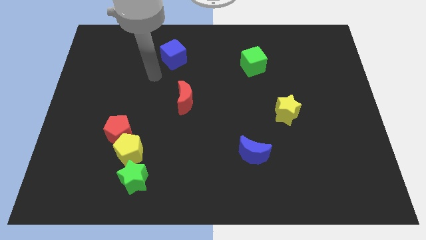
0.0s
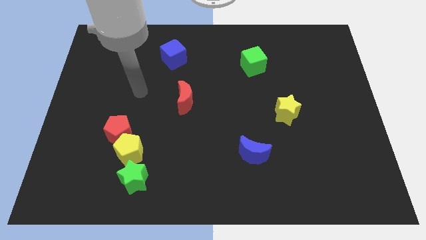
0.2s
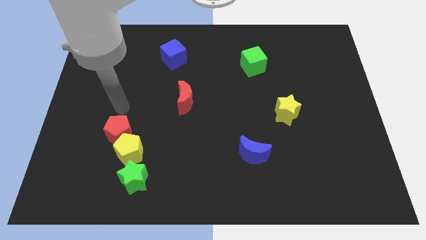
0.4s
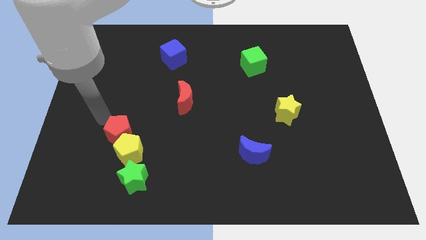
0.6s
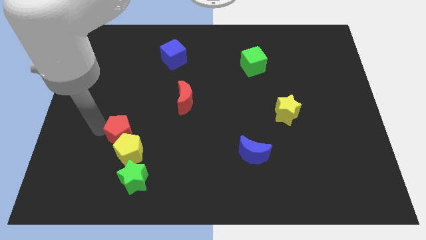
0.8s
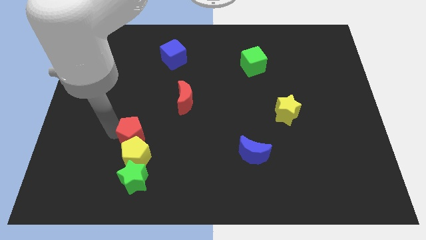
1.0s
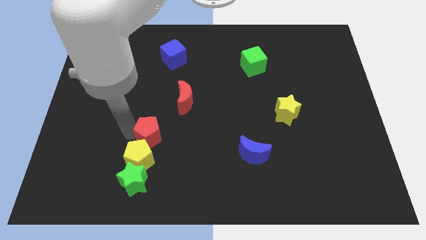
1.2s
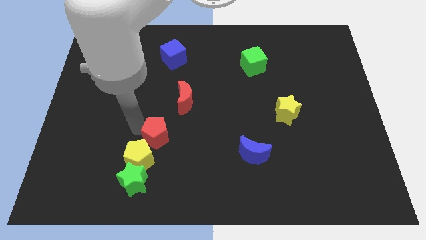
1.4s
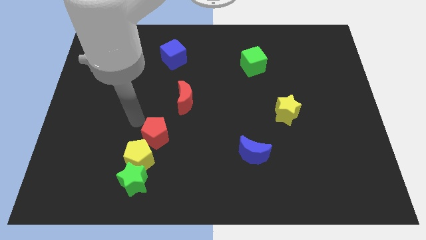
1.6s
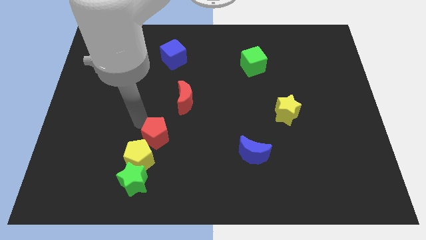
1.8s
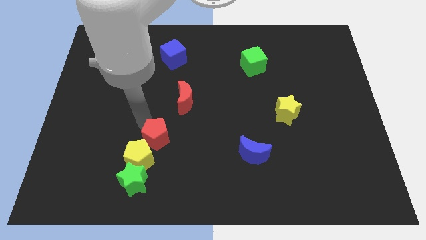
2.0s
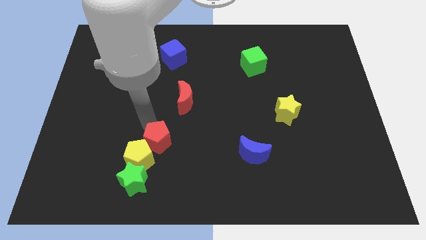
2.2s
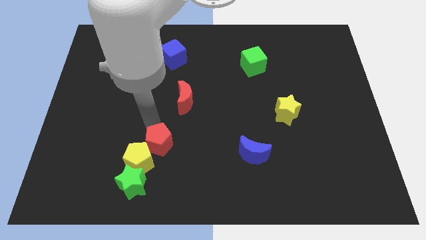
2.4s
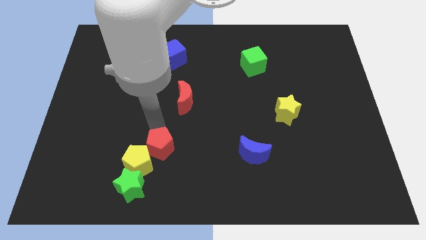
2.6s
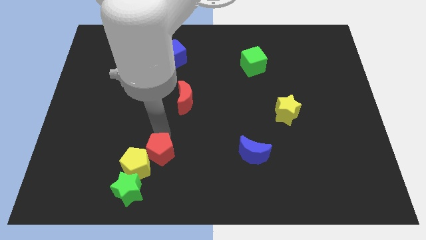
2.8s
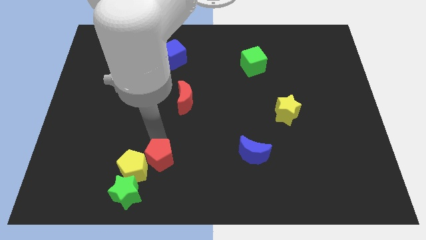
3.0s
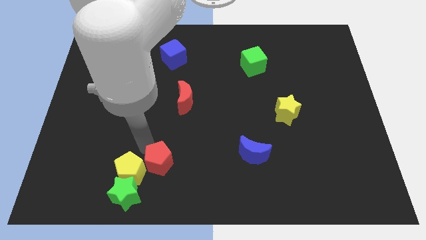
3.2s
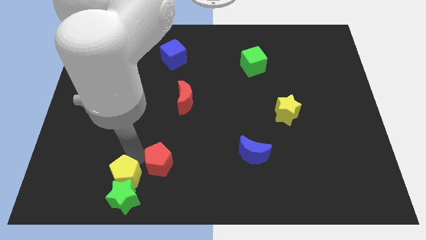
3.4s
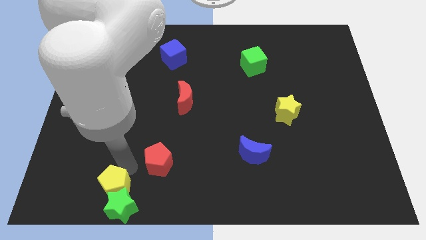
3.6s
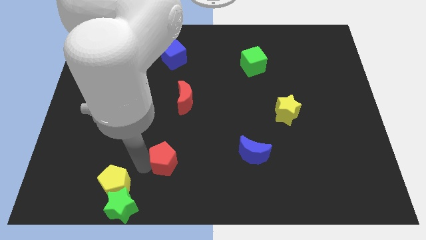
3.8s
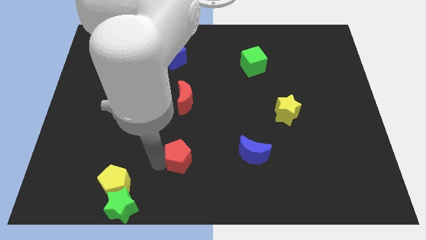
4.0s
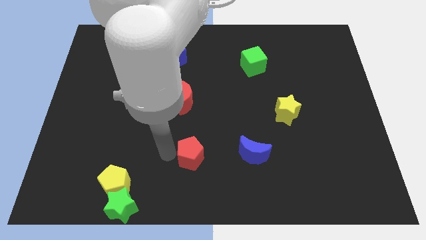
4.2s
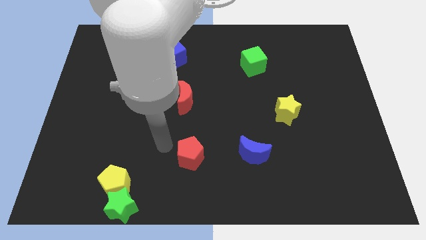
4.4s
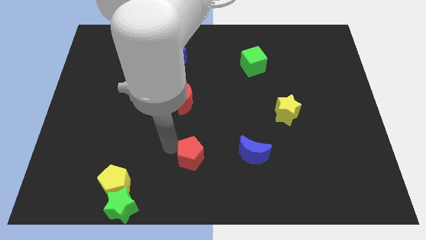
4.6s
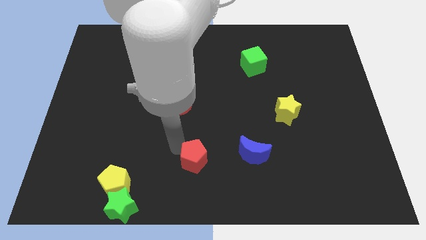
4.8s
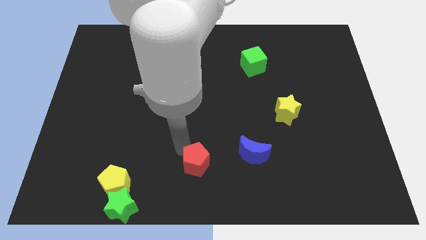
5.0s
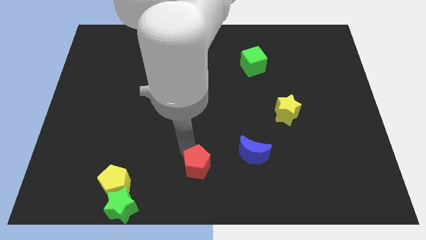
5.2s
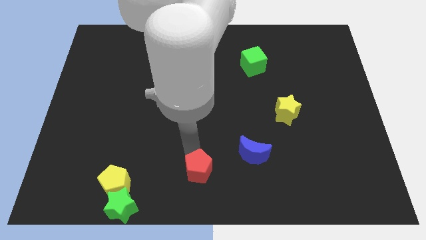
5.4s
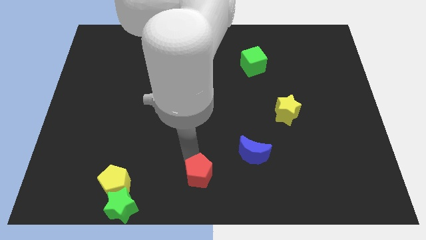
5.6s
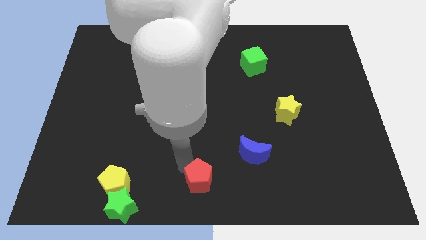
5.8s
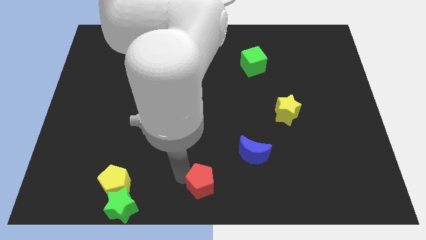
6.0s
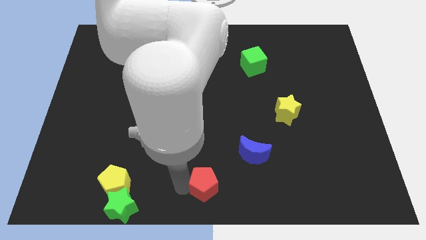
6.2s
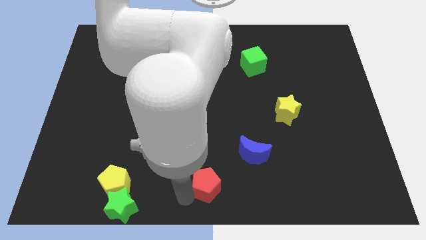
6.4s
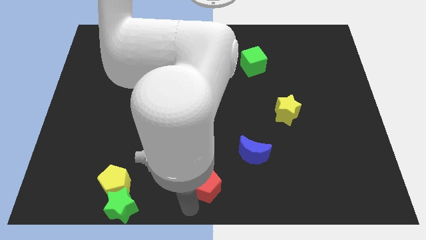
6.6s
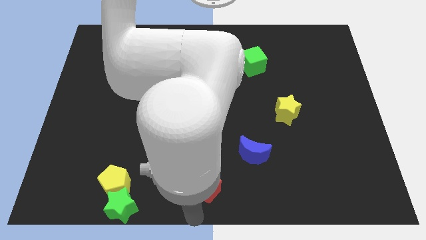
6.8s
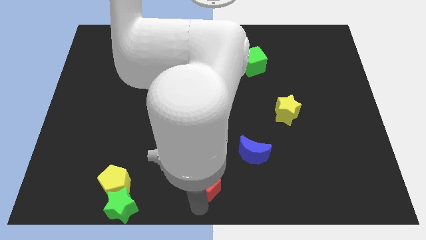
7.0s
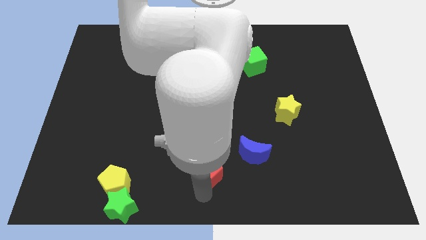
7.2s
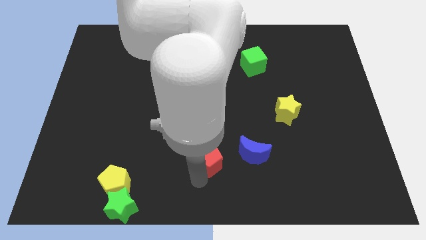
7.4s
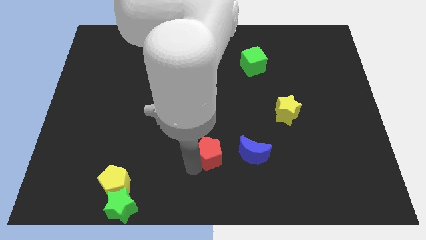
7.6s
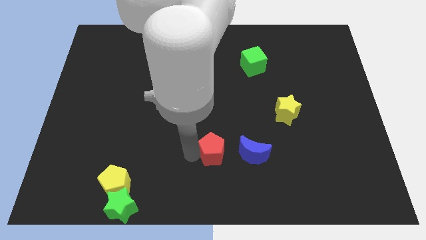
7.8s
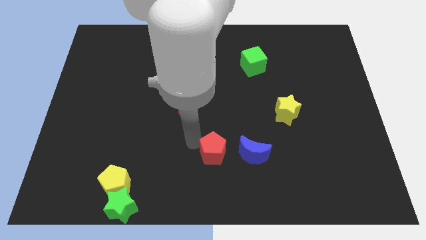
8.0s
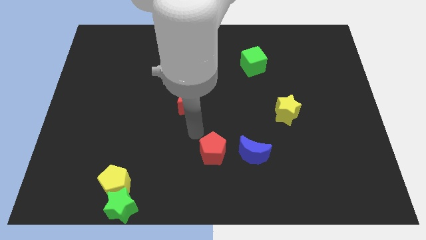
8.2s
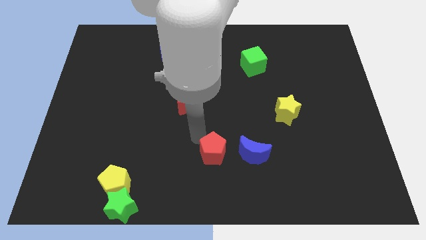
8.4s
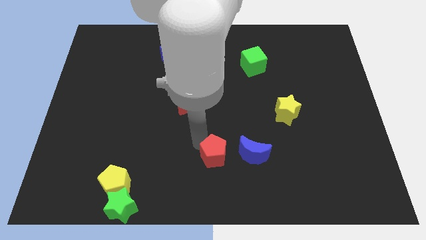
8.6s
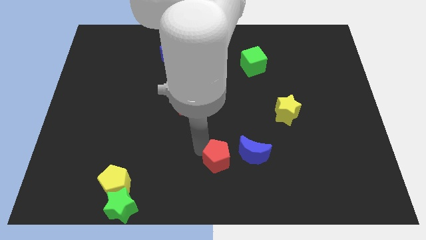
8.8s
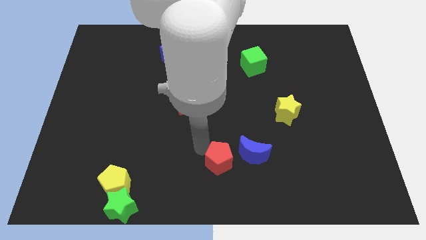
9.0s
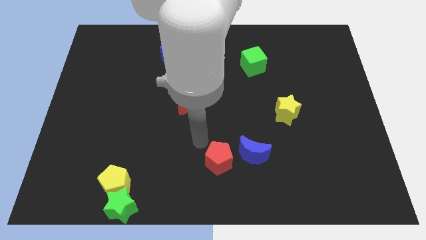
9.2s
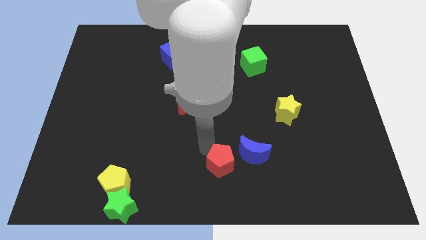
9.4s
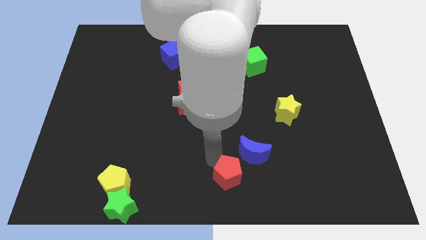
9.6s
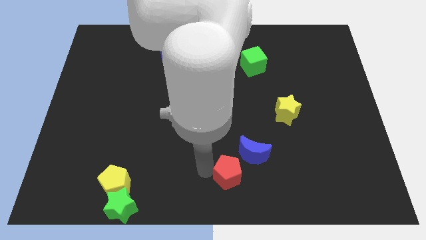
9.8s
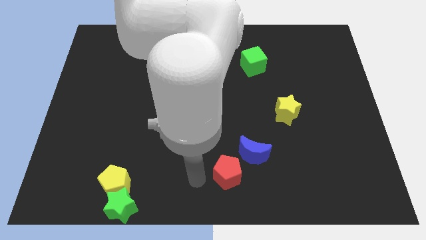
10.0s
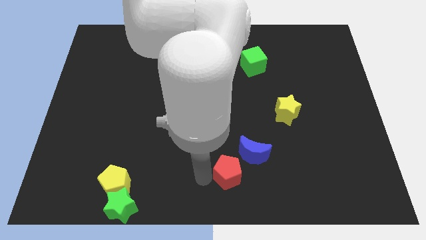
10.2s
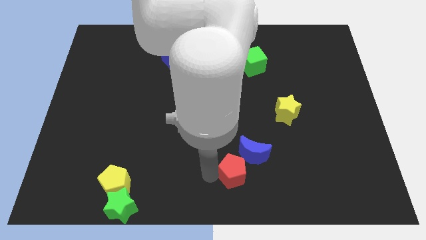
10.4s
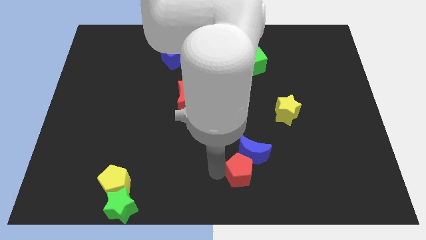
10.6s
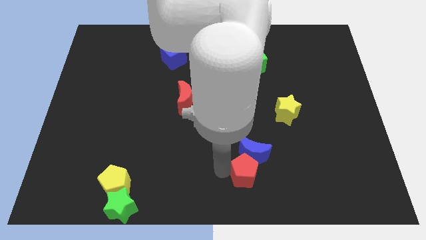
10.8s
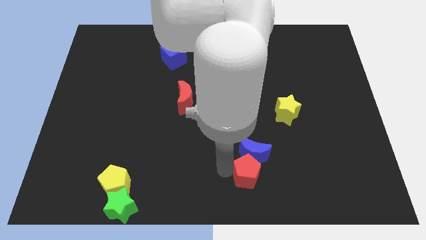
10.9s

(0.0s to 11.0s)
put the red pentagon to the bottom right side of the blue moon

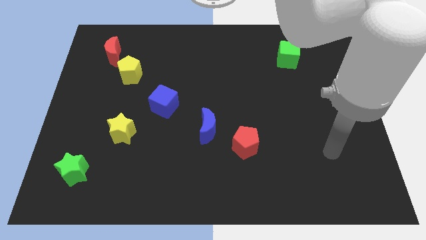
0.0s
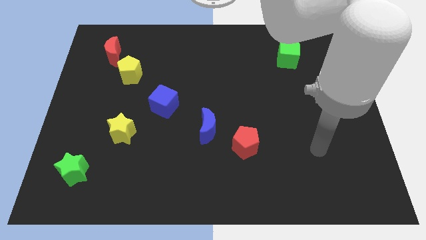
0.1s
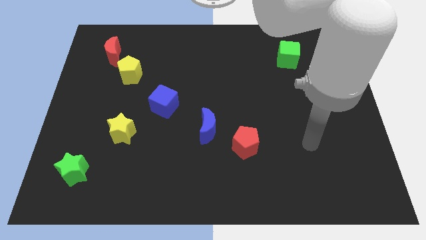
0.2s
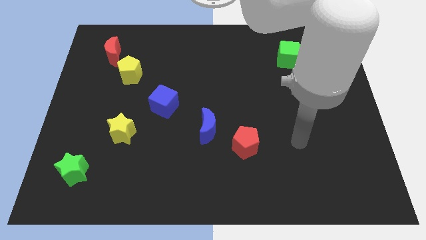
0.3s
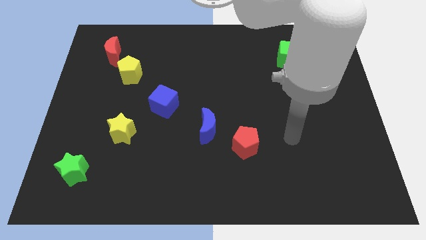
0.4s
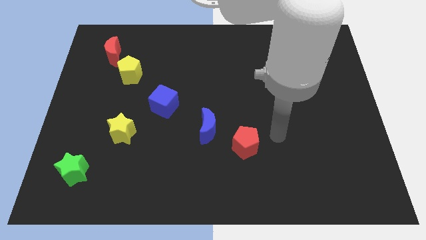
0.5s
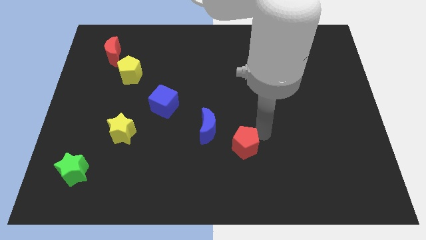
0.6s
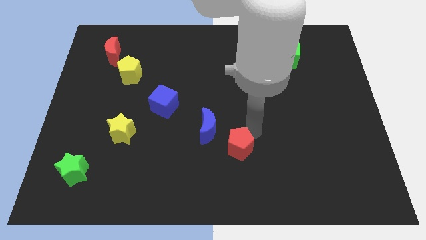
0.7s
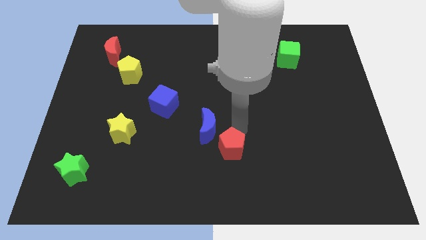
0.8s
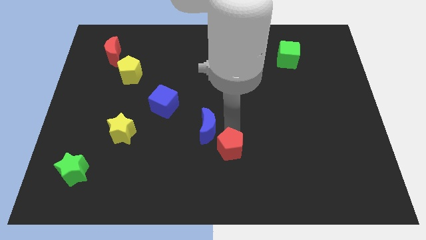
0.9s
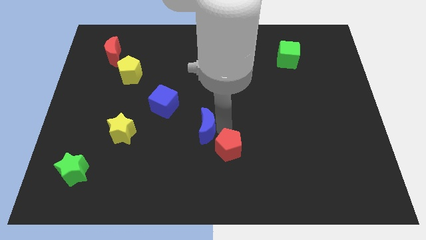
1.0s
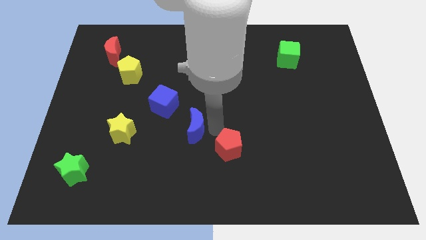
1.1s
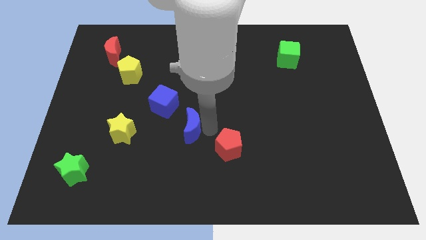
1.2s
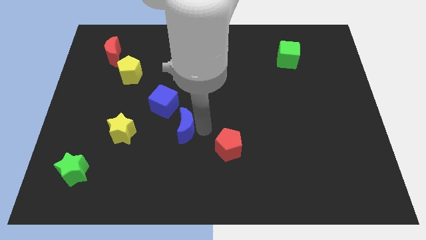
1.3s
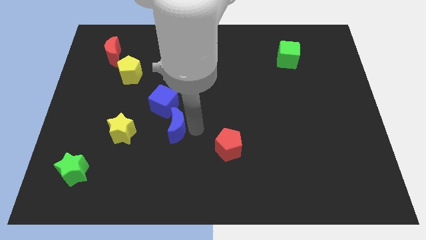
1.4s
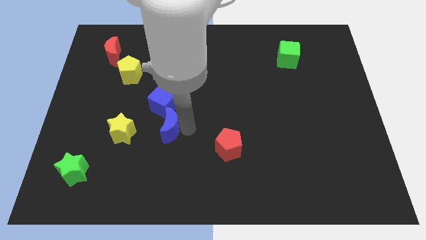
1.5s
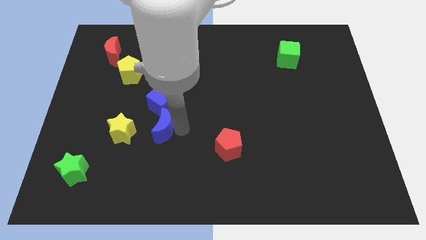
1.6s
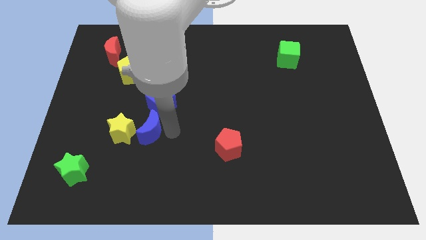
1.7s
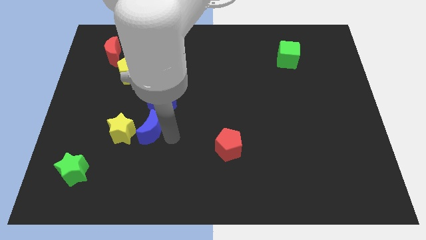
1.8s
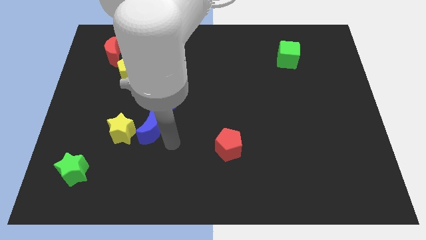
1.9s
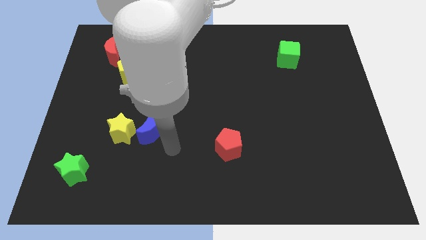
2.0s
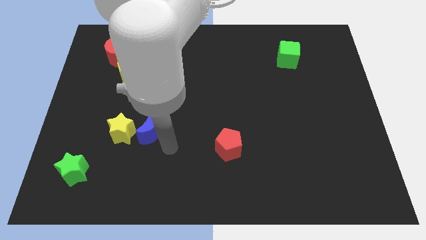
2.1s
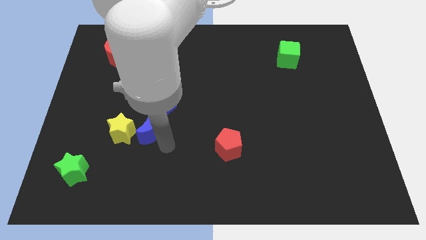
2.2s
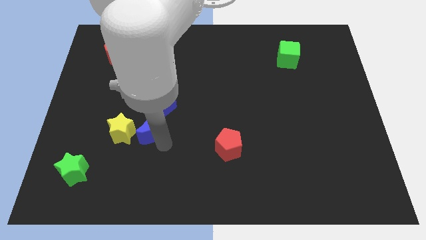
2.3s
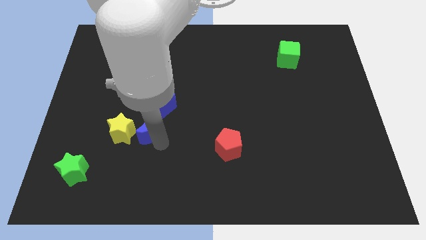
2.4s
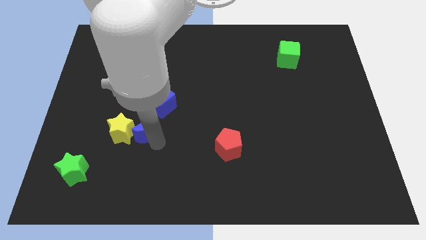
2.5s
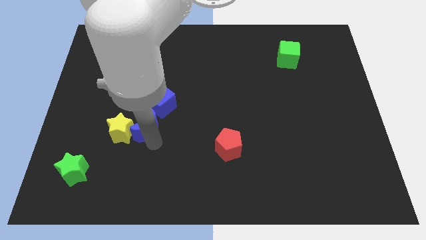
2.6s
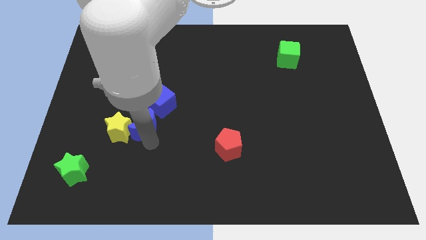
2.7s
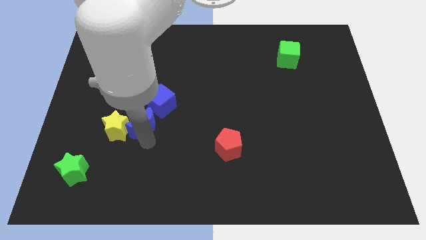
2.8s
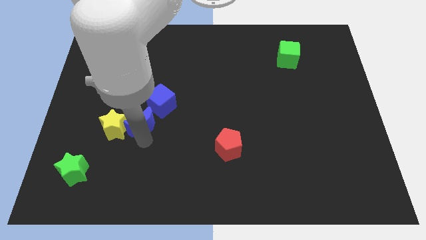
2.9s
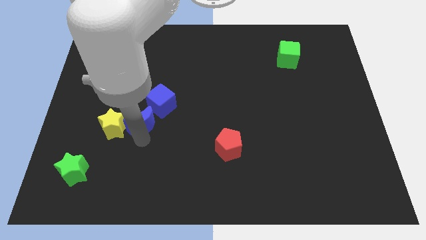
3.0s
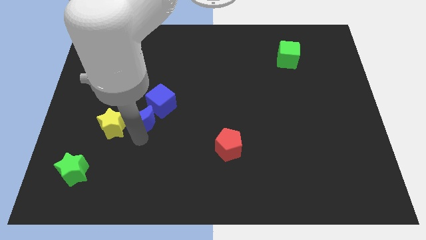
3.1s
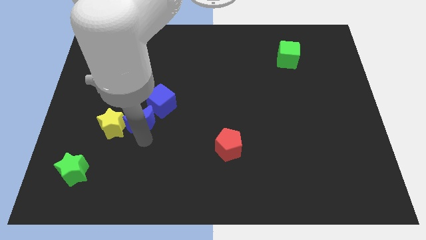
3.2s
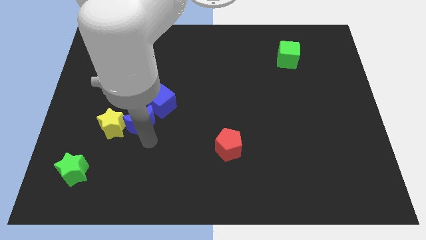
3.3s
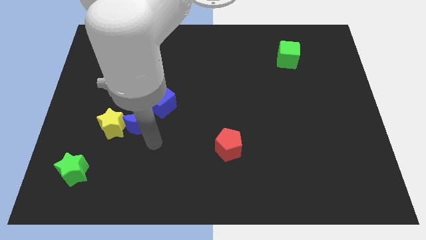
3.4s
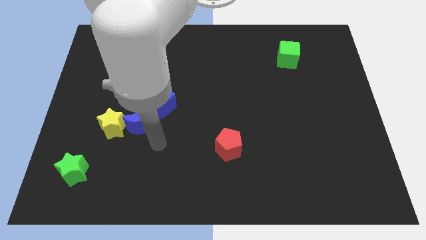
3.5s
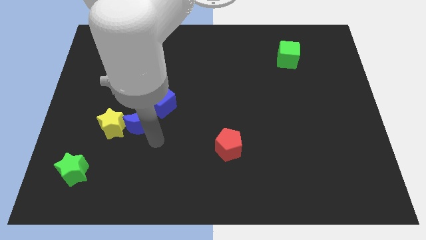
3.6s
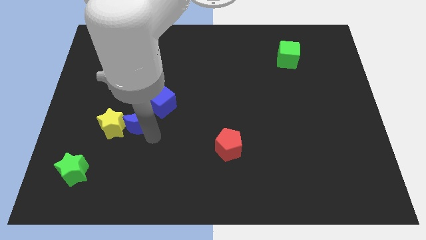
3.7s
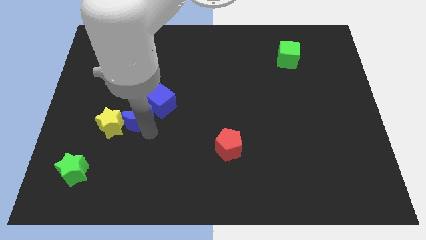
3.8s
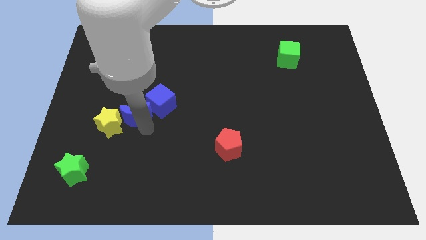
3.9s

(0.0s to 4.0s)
put the blue moon to the left of the blue cube
